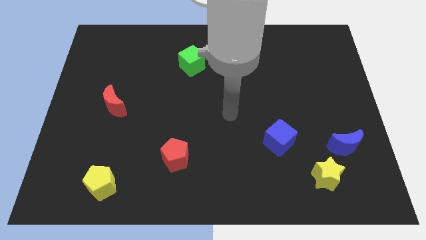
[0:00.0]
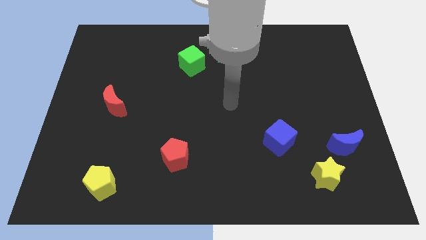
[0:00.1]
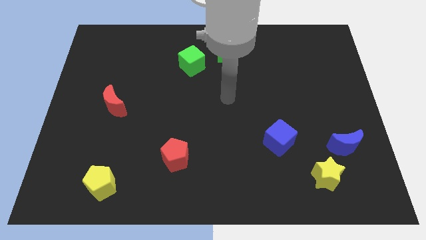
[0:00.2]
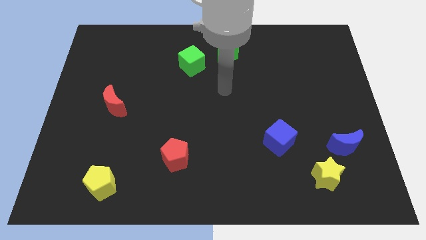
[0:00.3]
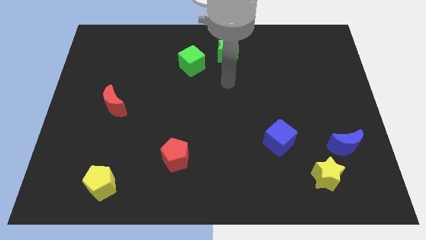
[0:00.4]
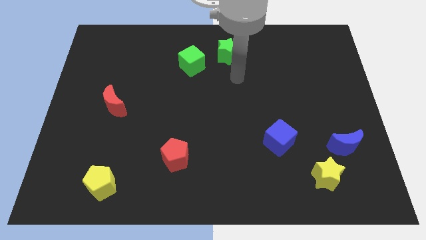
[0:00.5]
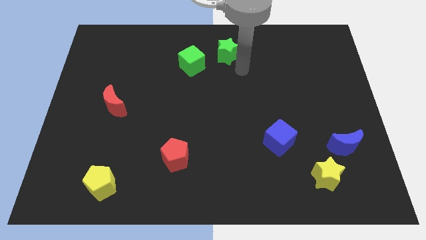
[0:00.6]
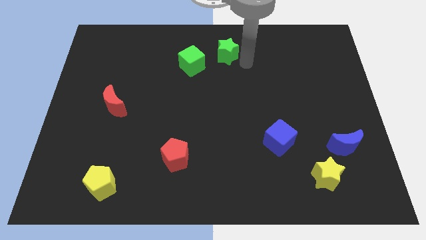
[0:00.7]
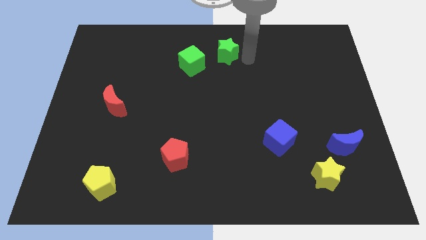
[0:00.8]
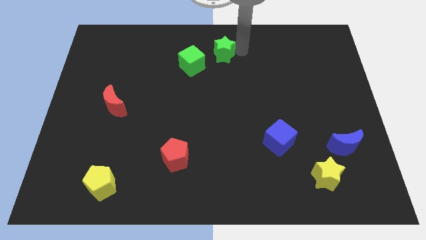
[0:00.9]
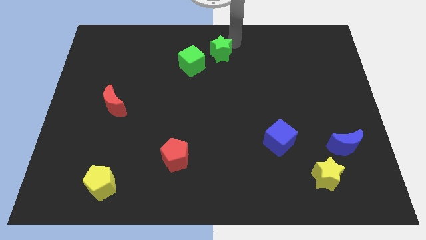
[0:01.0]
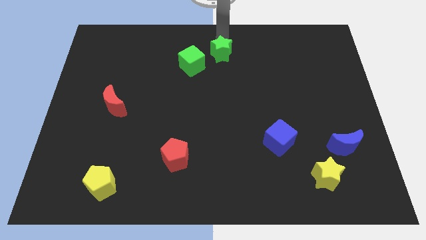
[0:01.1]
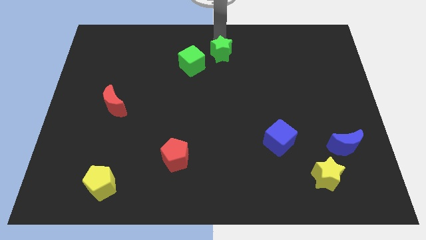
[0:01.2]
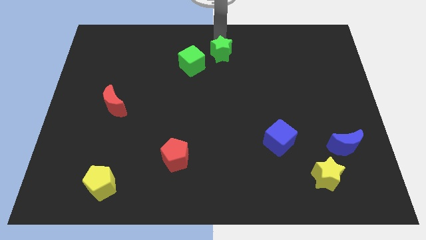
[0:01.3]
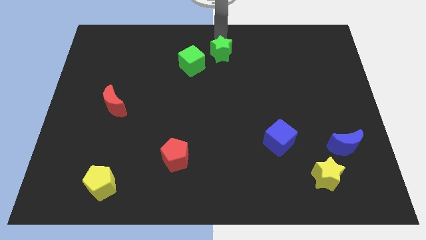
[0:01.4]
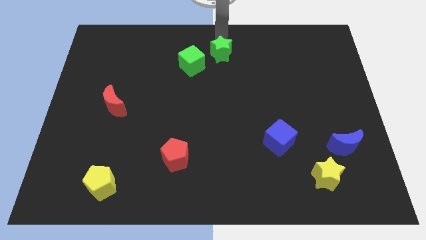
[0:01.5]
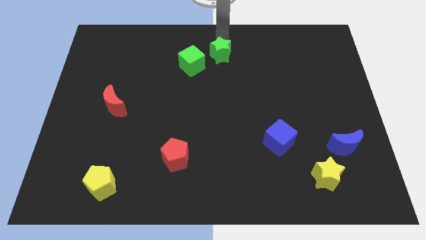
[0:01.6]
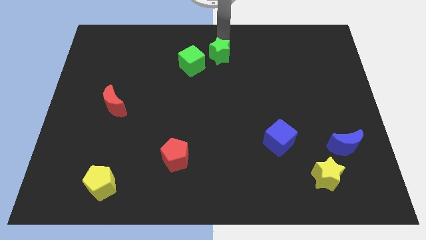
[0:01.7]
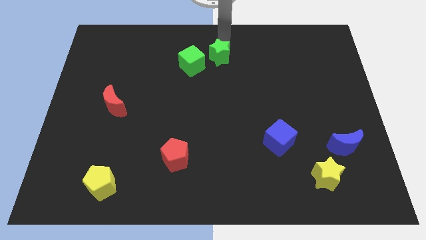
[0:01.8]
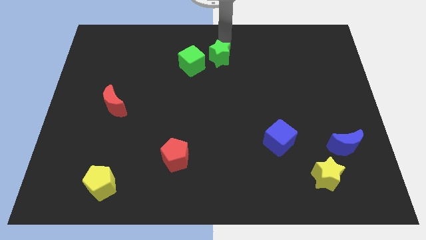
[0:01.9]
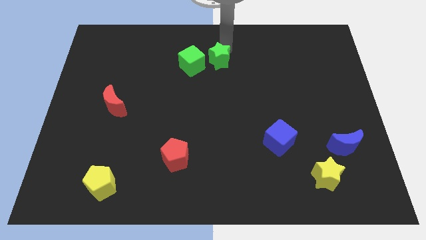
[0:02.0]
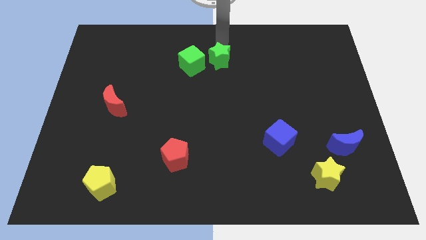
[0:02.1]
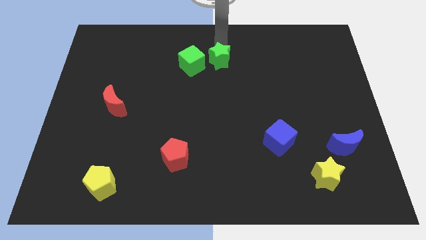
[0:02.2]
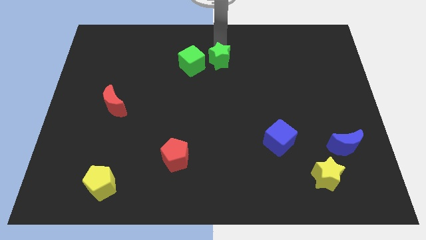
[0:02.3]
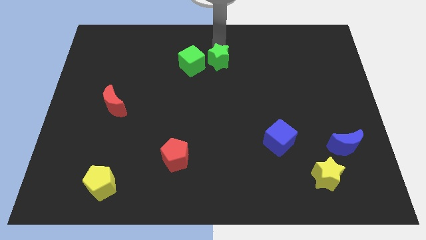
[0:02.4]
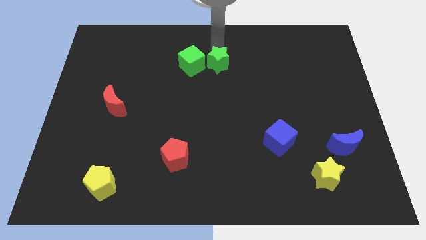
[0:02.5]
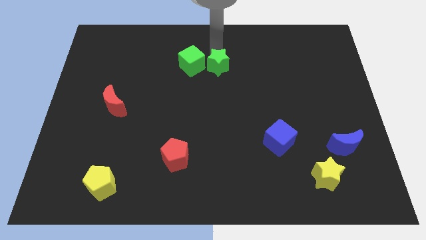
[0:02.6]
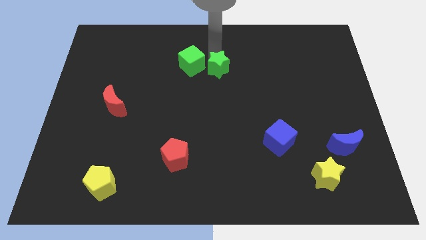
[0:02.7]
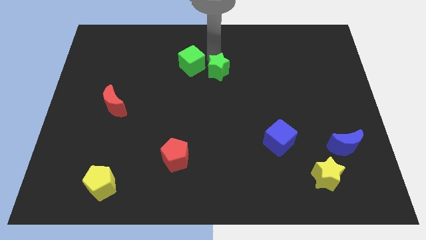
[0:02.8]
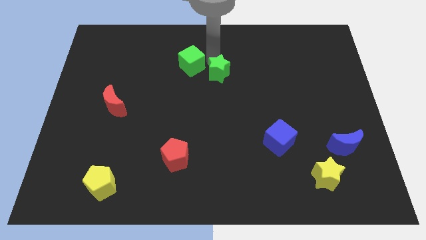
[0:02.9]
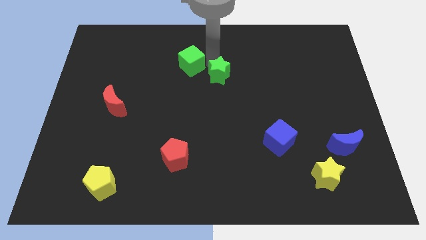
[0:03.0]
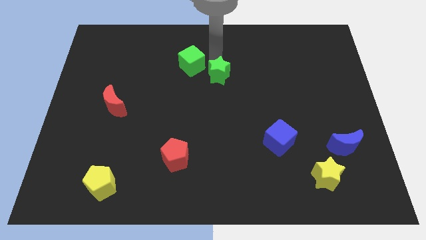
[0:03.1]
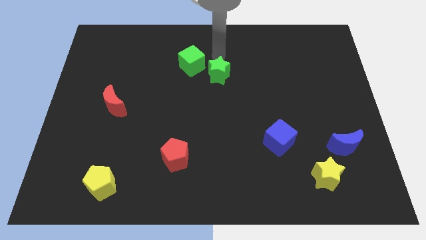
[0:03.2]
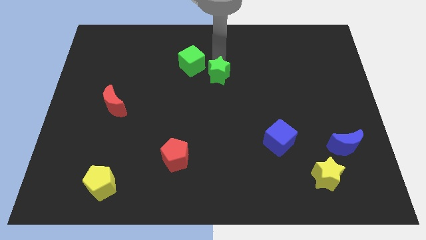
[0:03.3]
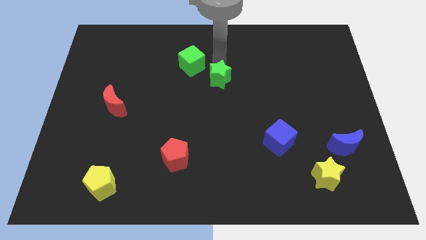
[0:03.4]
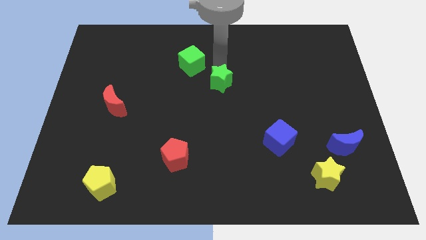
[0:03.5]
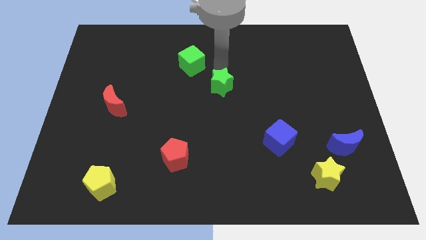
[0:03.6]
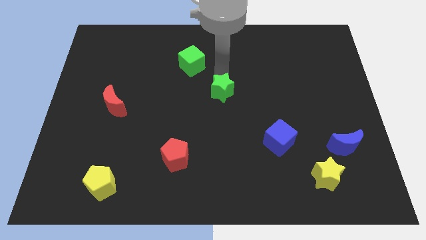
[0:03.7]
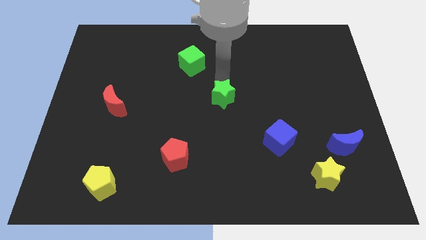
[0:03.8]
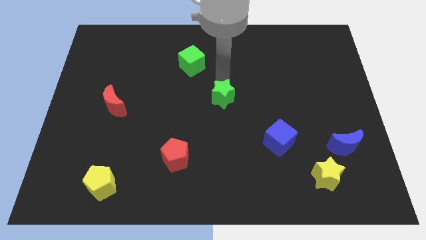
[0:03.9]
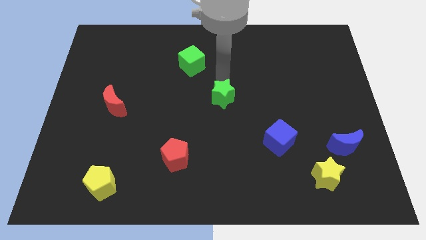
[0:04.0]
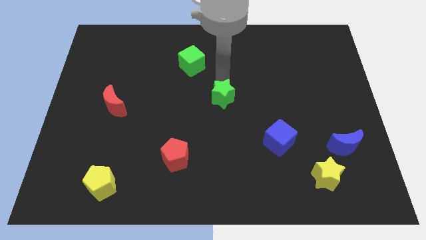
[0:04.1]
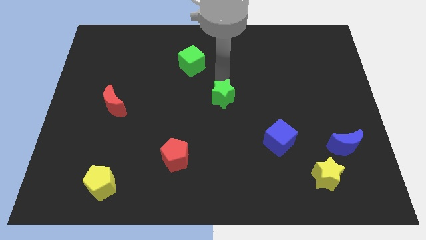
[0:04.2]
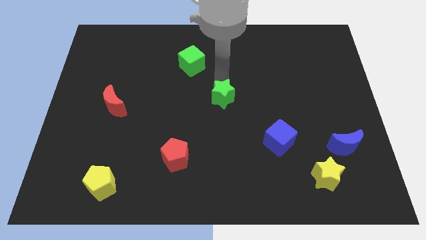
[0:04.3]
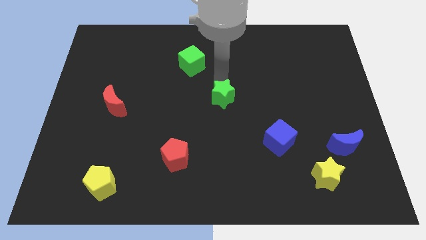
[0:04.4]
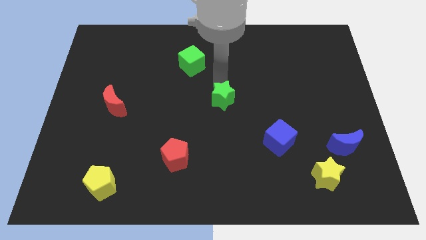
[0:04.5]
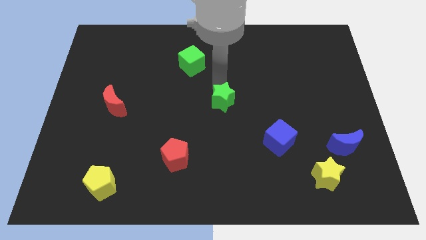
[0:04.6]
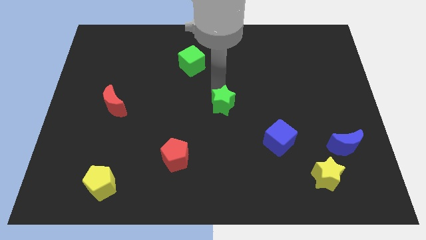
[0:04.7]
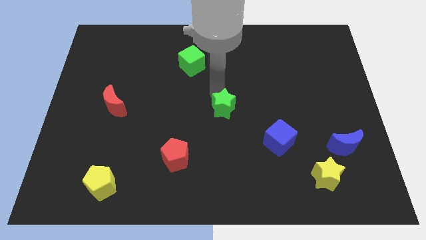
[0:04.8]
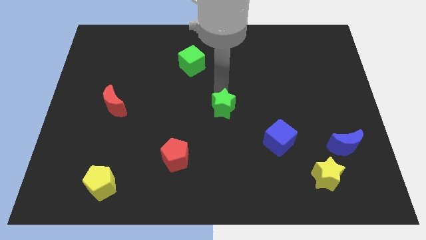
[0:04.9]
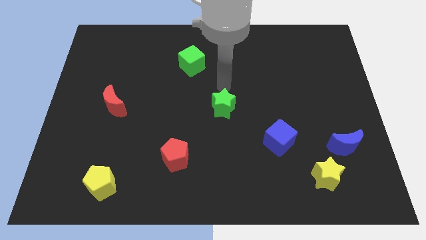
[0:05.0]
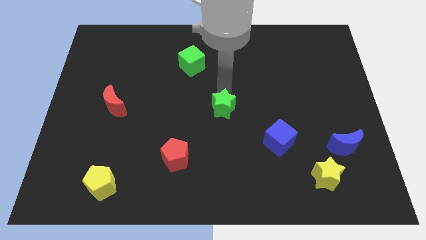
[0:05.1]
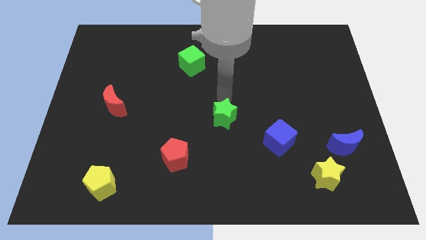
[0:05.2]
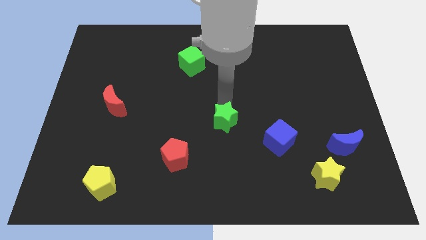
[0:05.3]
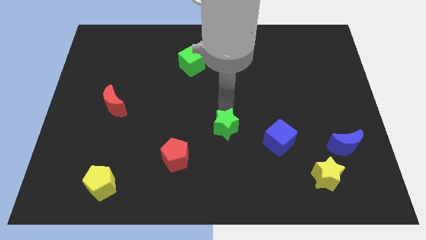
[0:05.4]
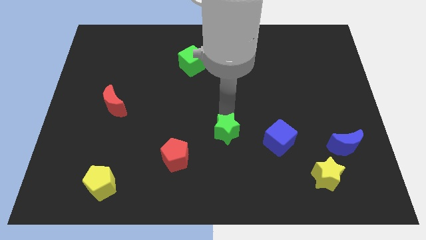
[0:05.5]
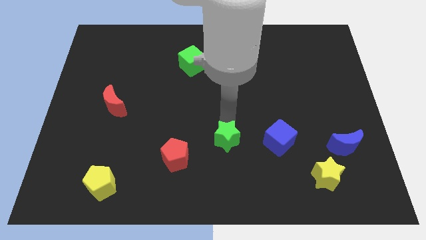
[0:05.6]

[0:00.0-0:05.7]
move the green star right of the red pentagon
